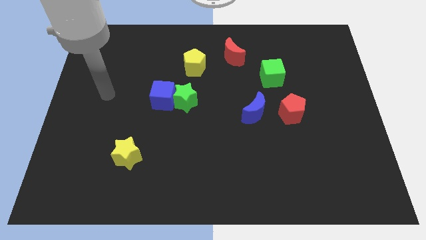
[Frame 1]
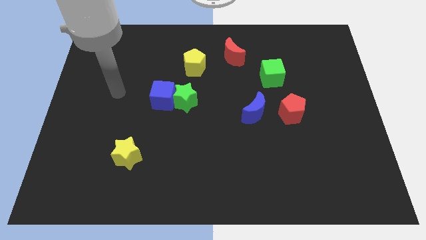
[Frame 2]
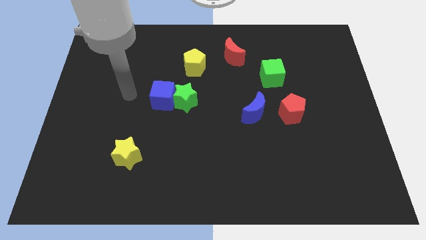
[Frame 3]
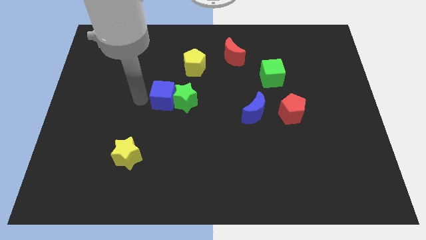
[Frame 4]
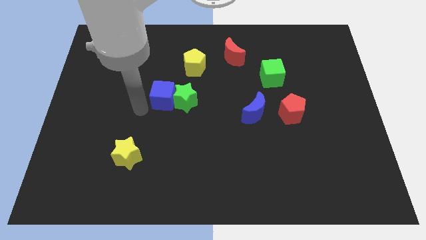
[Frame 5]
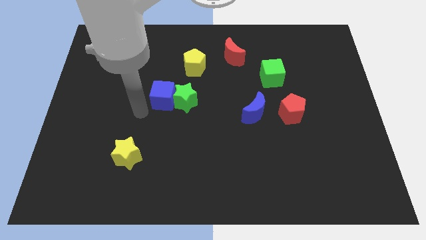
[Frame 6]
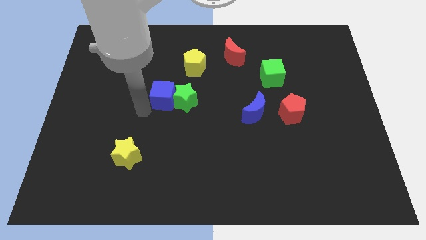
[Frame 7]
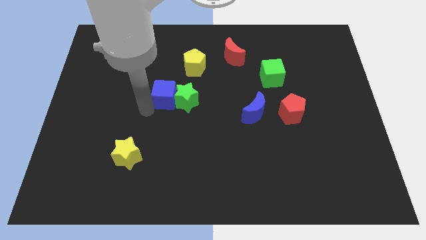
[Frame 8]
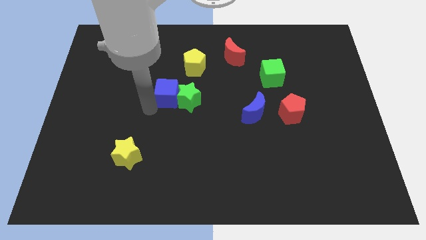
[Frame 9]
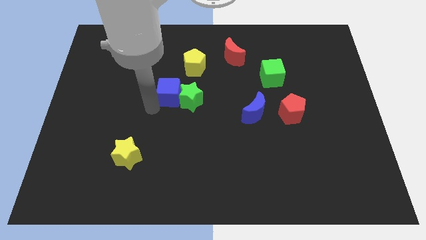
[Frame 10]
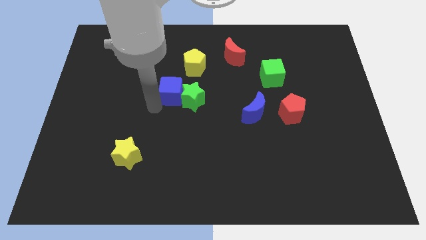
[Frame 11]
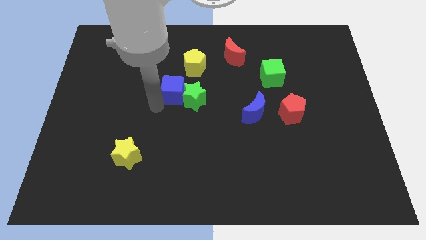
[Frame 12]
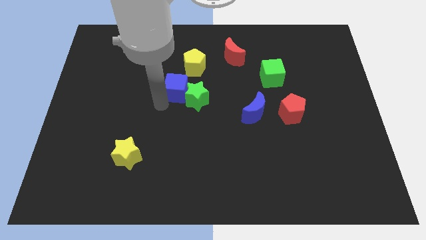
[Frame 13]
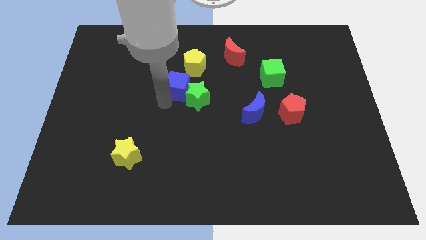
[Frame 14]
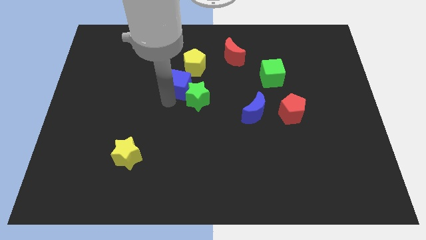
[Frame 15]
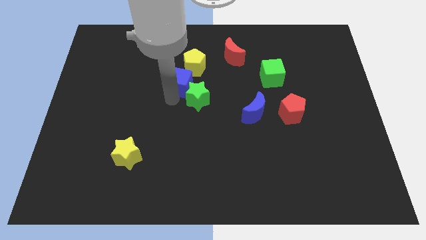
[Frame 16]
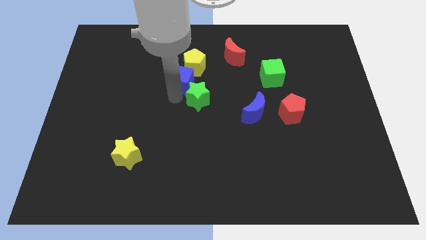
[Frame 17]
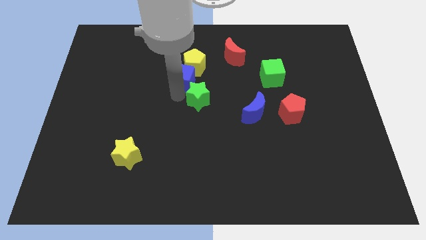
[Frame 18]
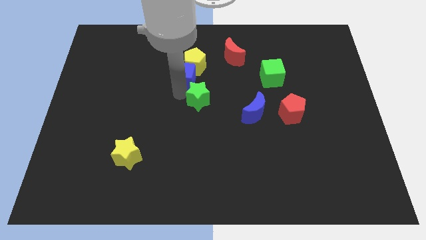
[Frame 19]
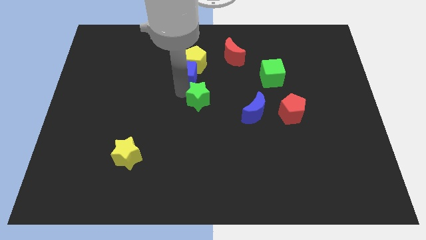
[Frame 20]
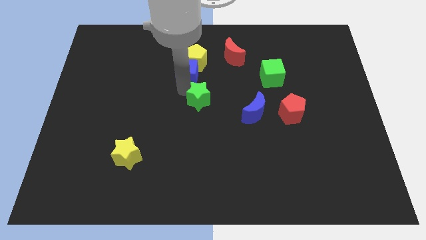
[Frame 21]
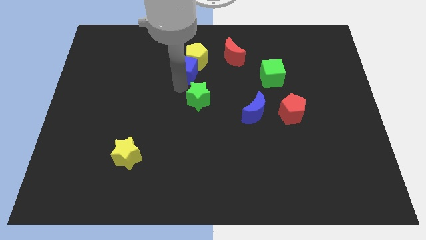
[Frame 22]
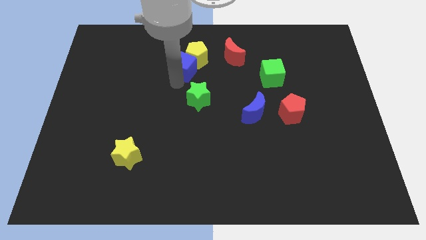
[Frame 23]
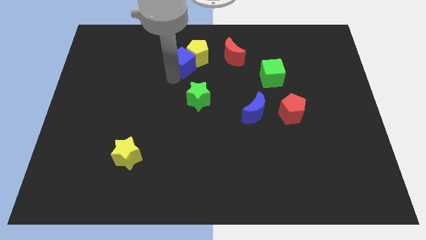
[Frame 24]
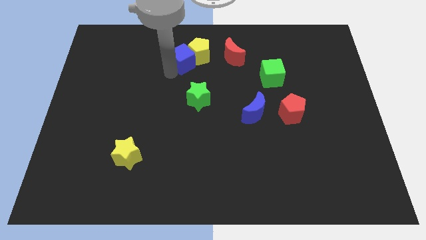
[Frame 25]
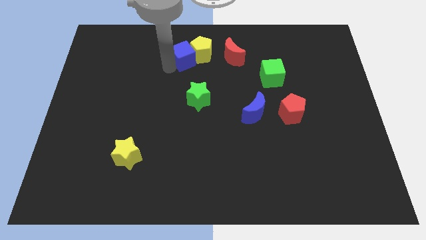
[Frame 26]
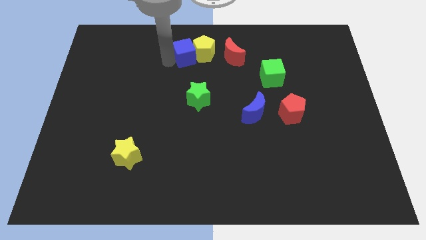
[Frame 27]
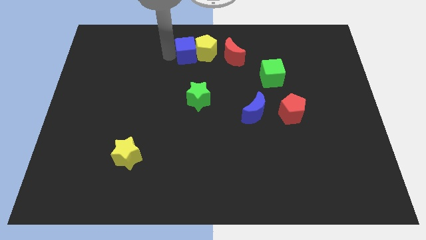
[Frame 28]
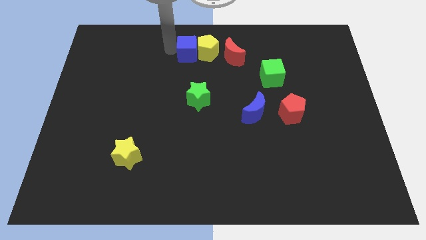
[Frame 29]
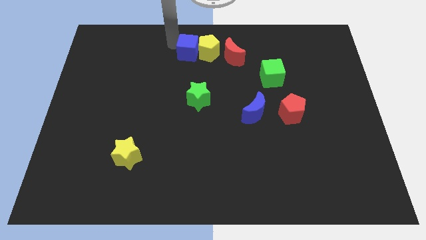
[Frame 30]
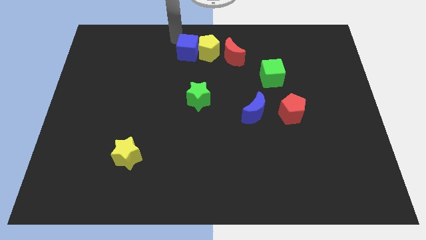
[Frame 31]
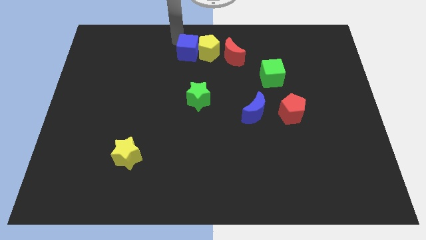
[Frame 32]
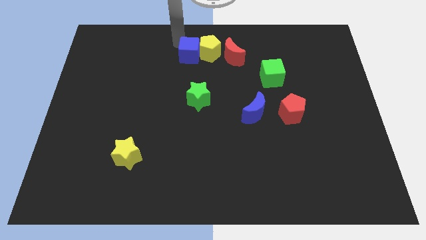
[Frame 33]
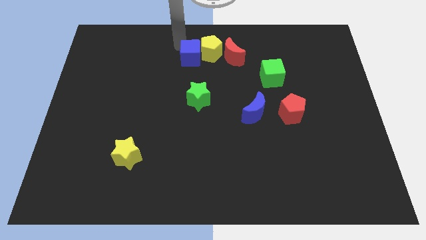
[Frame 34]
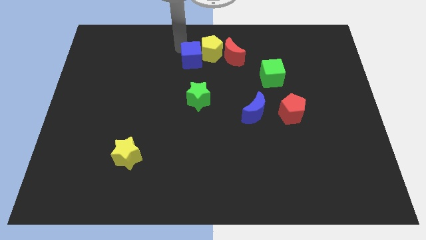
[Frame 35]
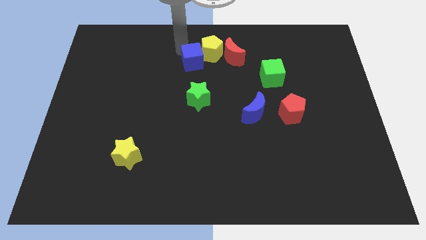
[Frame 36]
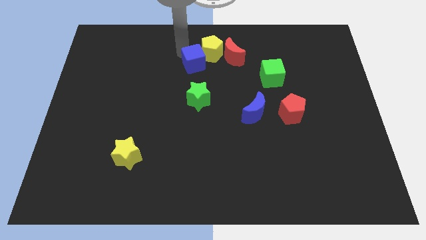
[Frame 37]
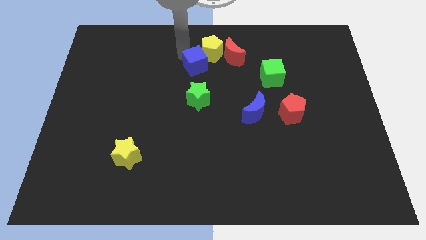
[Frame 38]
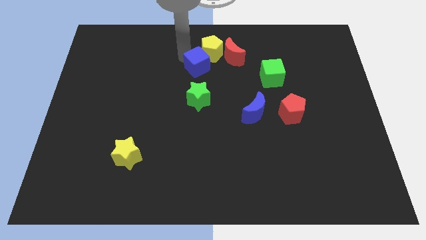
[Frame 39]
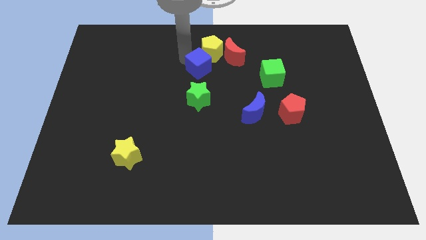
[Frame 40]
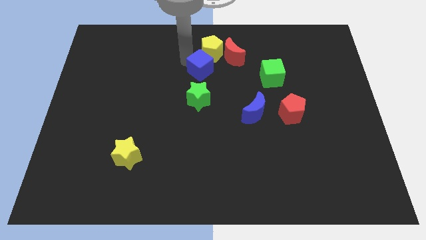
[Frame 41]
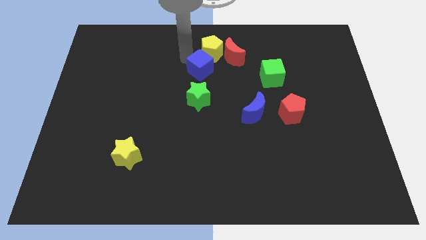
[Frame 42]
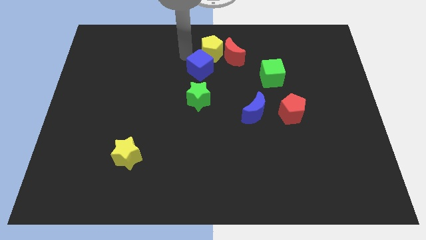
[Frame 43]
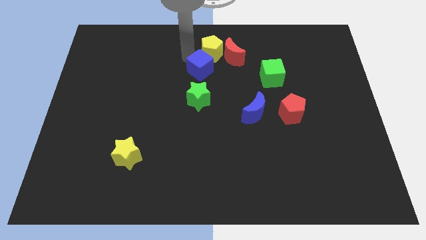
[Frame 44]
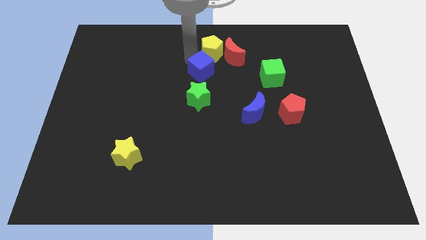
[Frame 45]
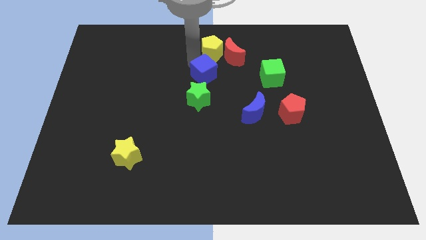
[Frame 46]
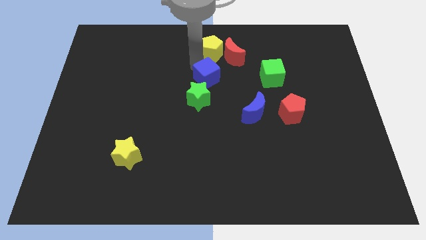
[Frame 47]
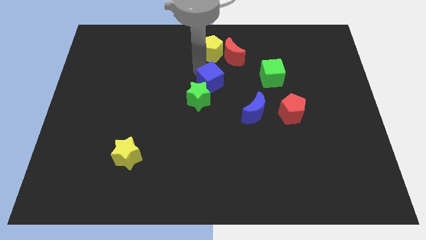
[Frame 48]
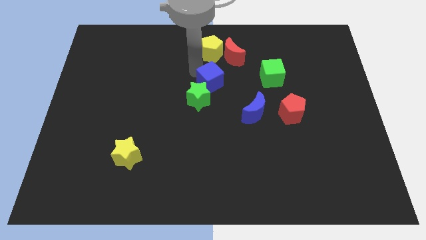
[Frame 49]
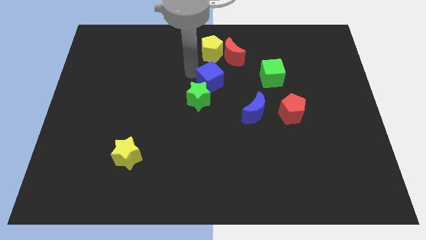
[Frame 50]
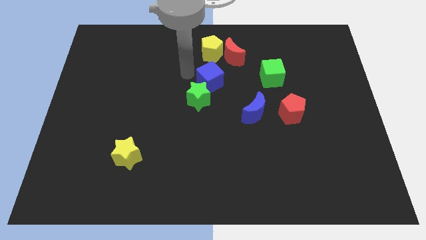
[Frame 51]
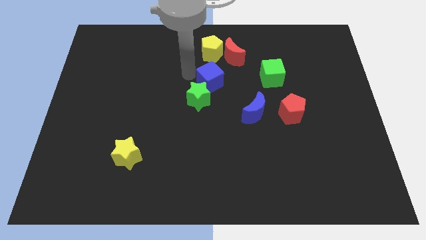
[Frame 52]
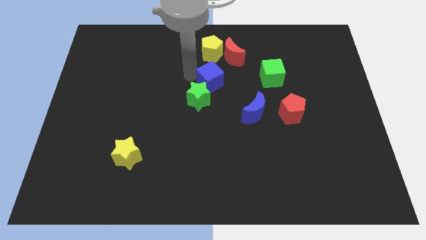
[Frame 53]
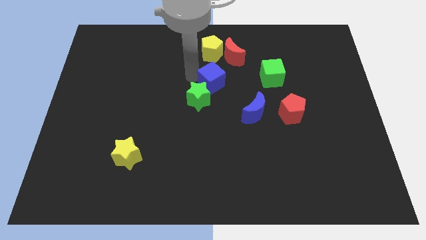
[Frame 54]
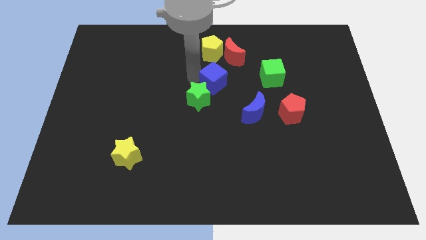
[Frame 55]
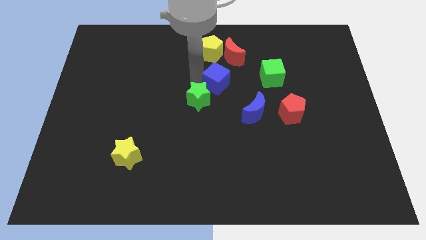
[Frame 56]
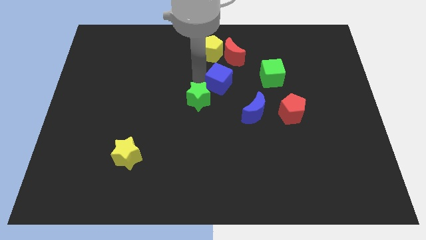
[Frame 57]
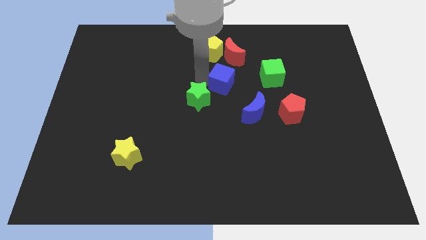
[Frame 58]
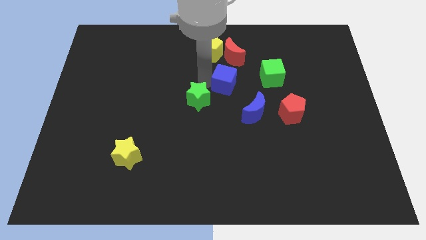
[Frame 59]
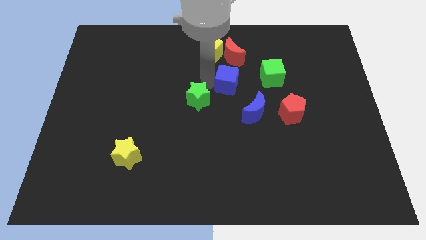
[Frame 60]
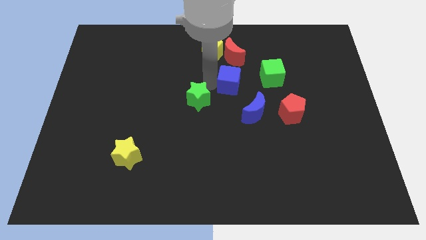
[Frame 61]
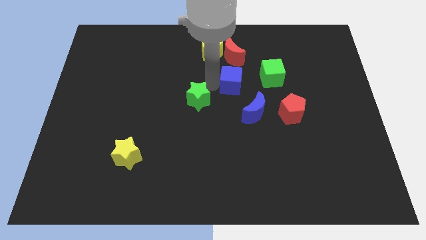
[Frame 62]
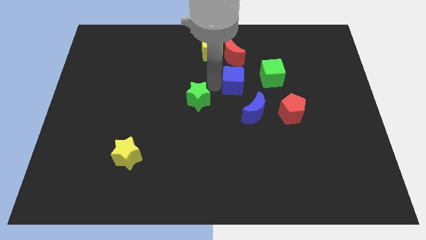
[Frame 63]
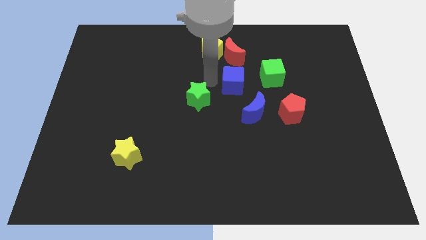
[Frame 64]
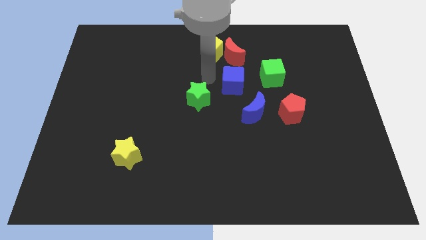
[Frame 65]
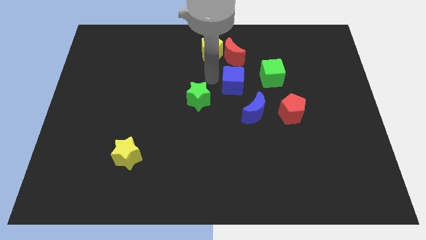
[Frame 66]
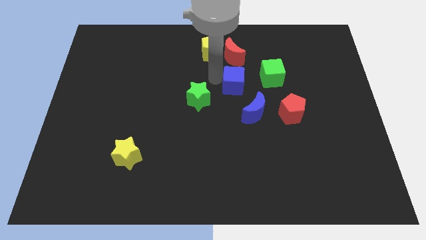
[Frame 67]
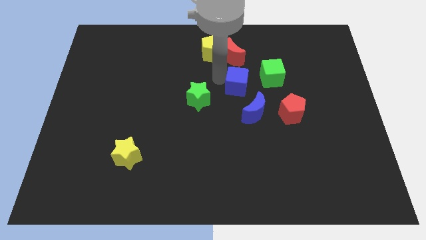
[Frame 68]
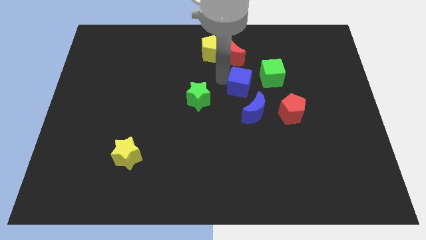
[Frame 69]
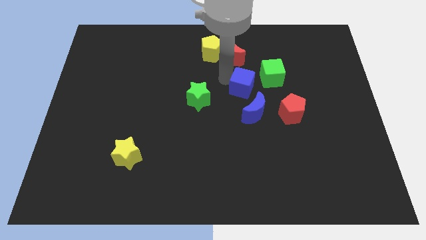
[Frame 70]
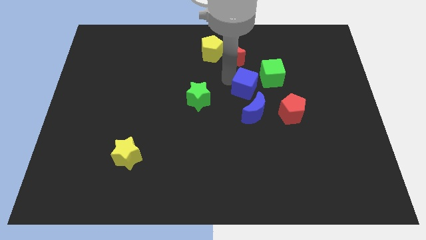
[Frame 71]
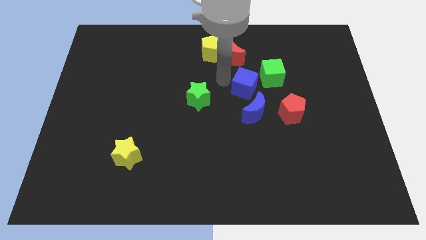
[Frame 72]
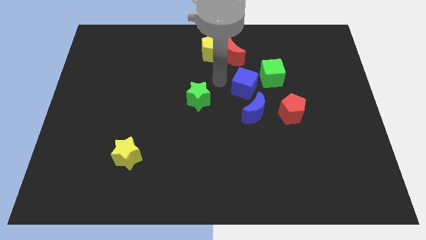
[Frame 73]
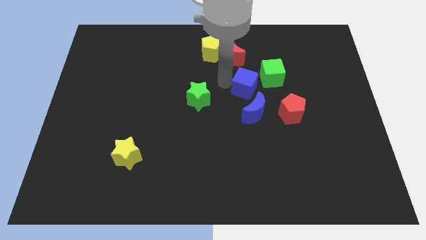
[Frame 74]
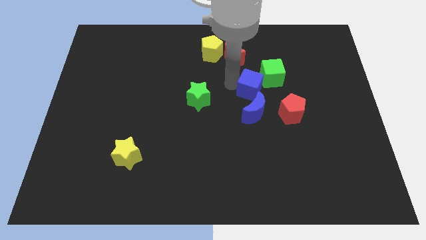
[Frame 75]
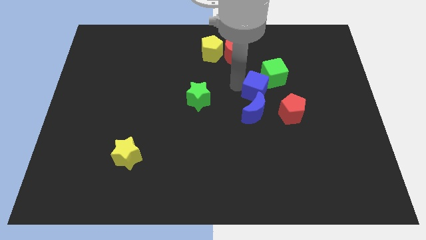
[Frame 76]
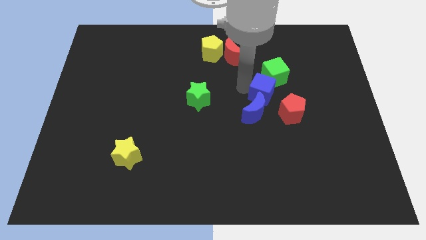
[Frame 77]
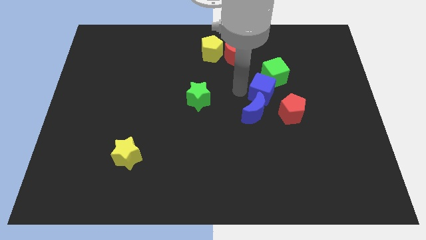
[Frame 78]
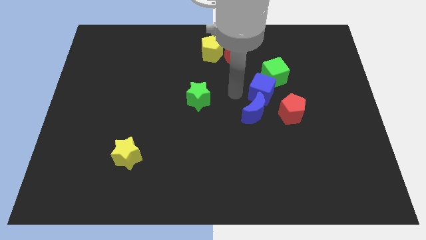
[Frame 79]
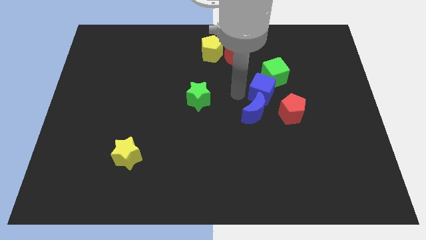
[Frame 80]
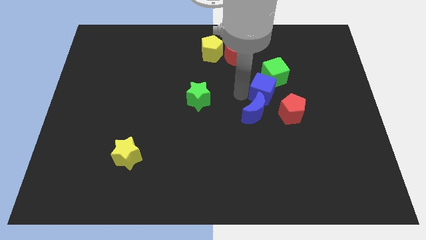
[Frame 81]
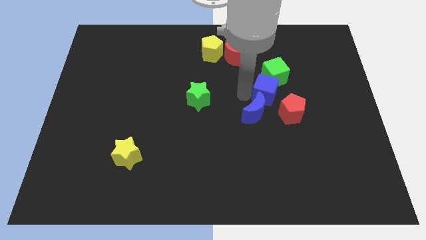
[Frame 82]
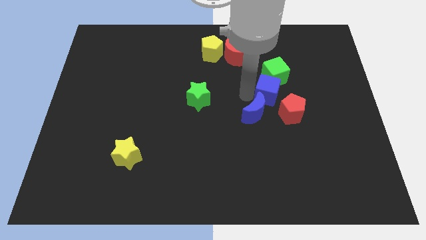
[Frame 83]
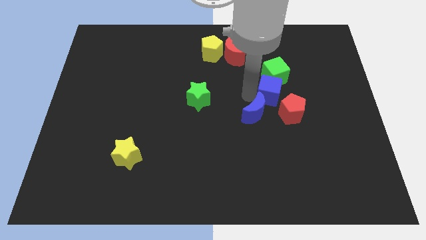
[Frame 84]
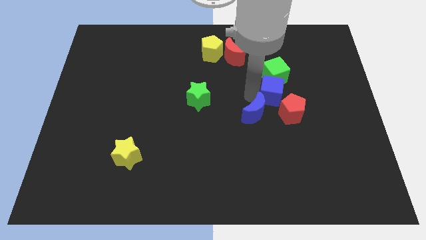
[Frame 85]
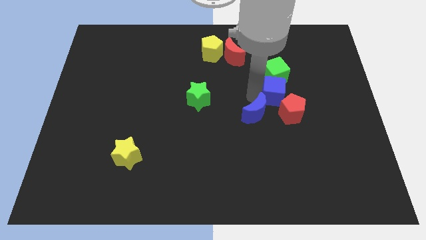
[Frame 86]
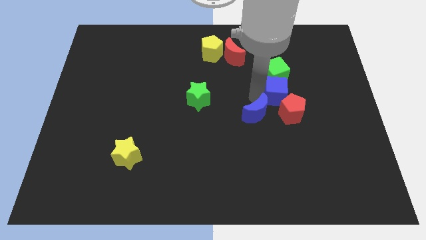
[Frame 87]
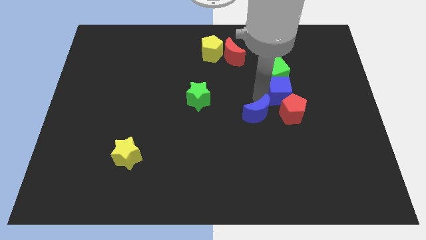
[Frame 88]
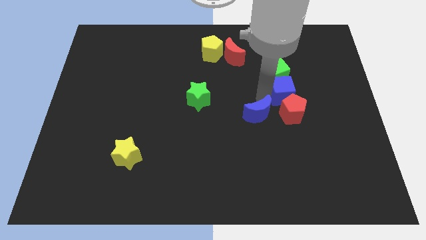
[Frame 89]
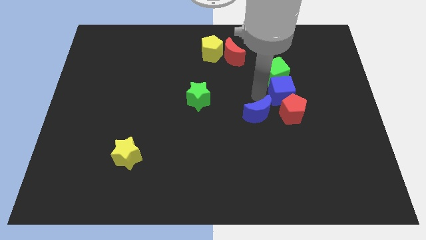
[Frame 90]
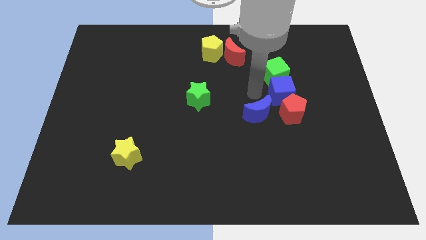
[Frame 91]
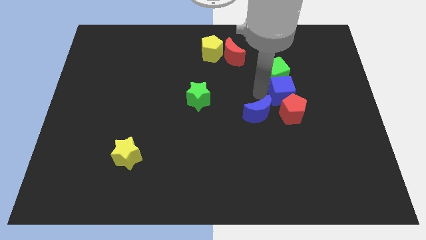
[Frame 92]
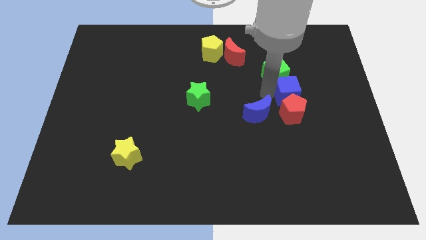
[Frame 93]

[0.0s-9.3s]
slide the blue cube to the top right side of the red pentagon
